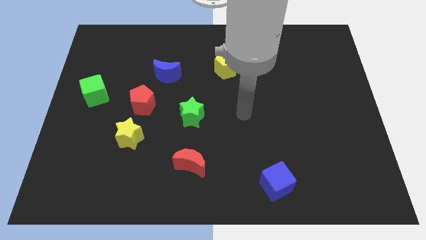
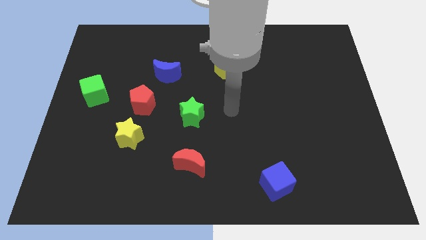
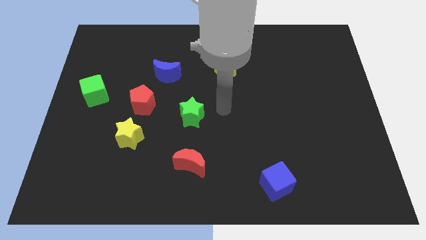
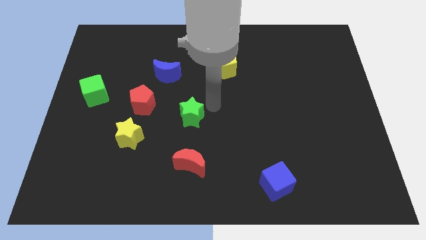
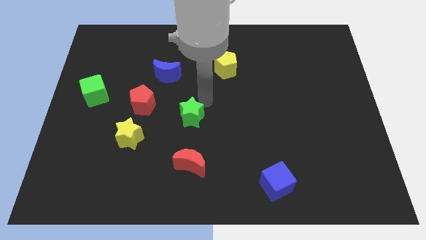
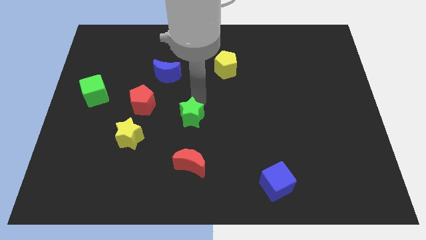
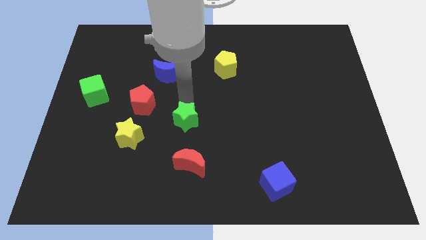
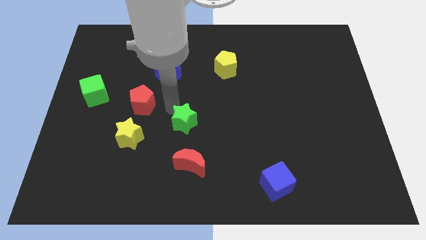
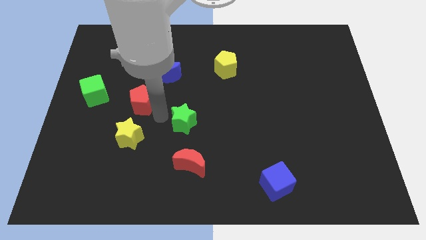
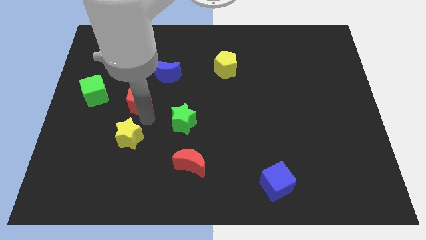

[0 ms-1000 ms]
pull the red pentagon apart from the yellow star

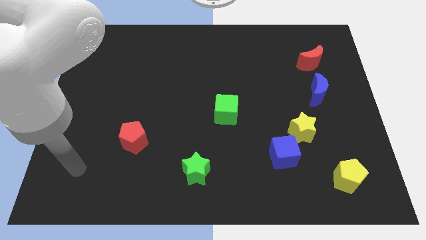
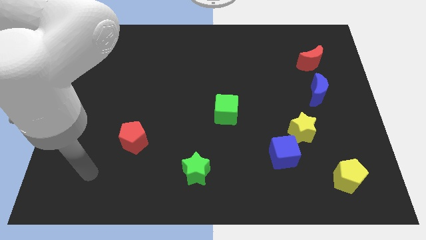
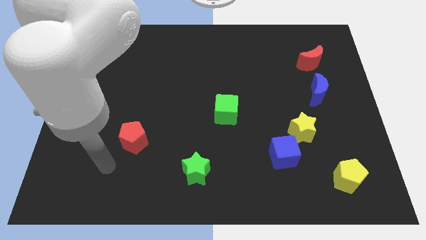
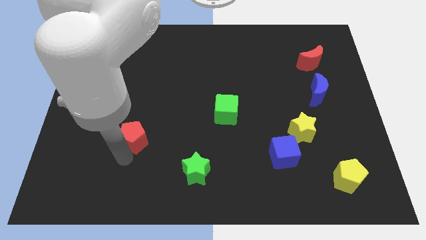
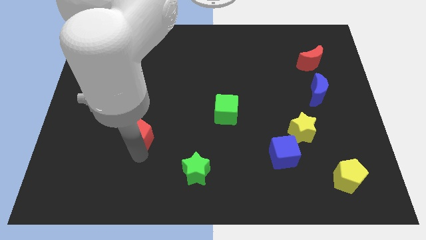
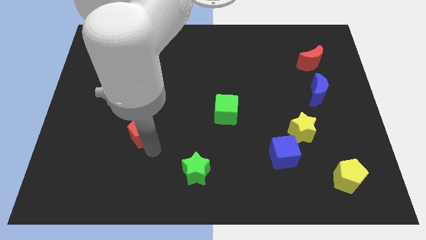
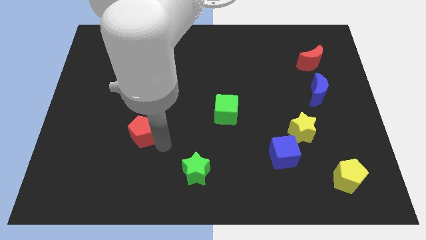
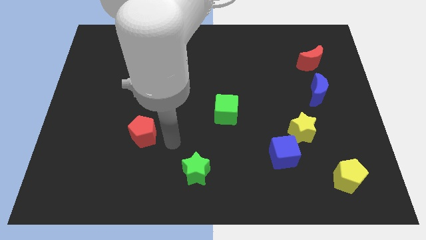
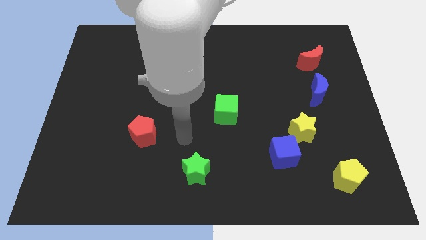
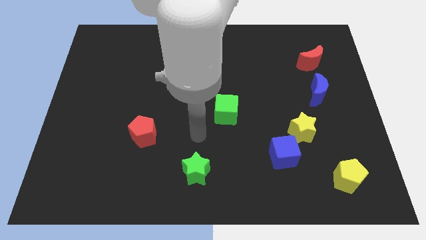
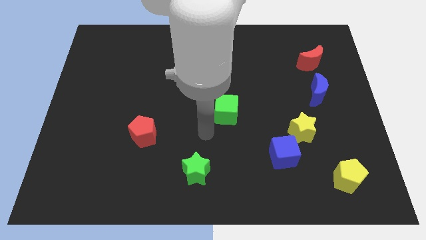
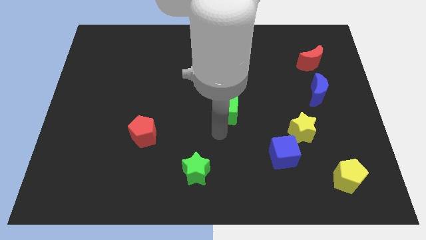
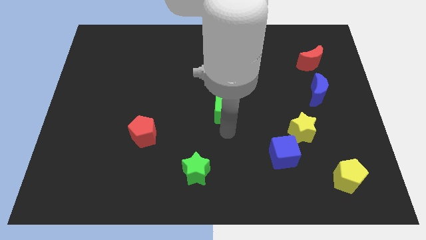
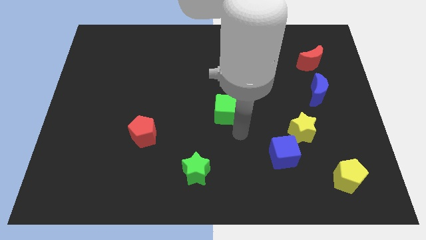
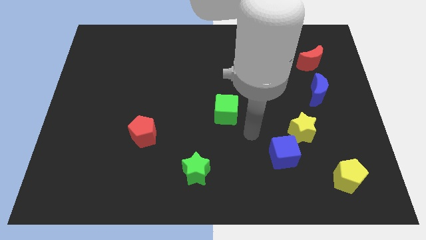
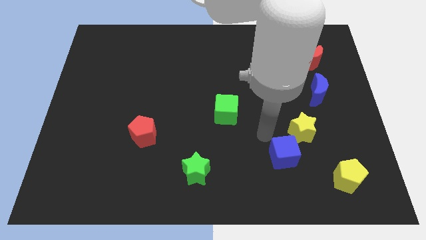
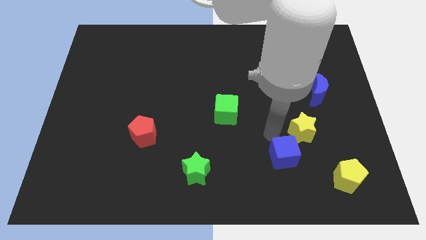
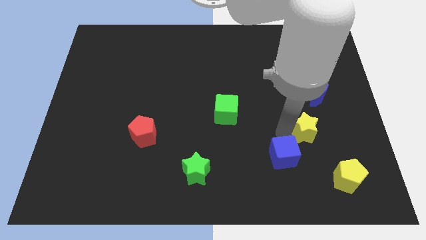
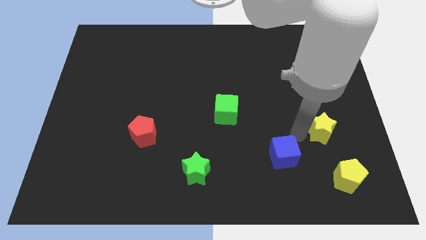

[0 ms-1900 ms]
separate the blue cube from the yellow star

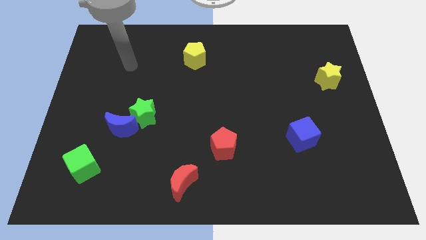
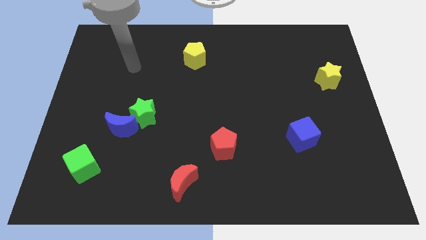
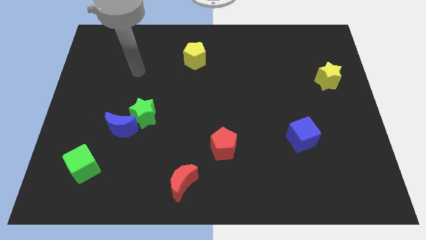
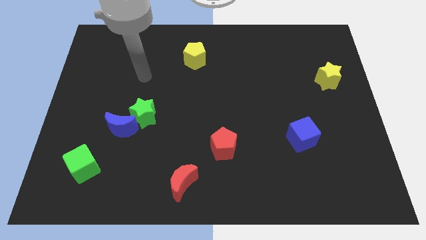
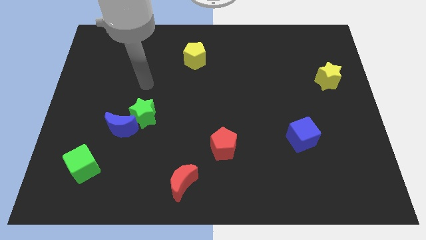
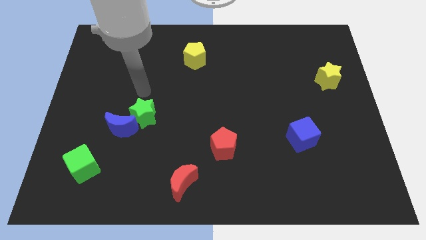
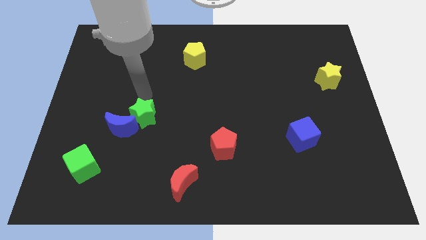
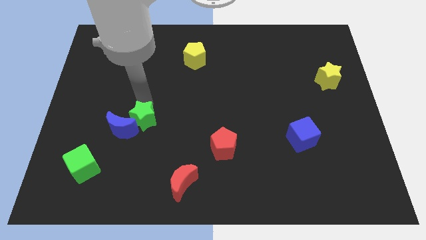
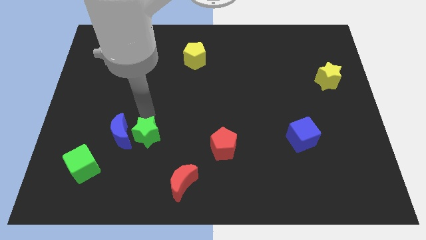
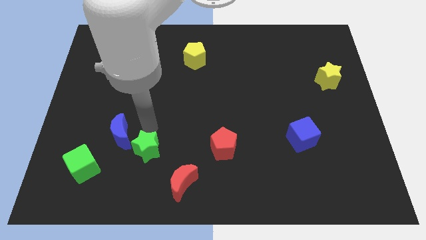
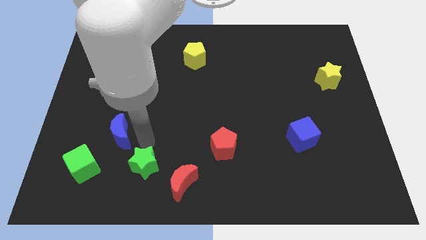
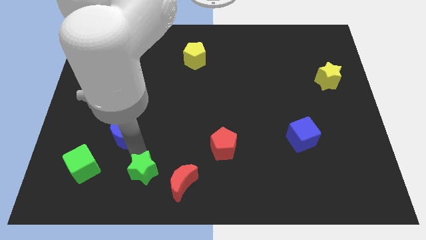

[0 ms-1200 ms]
separate the blue moon from the green star

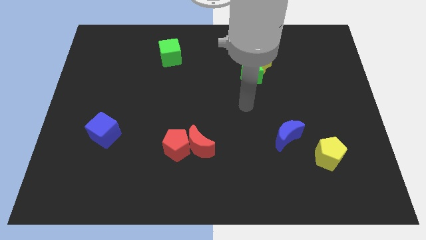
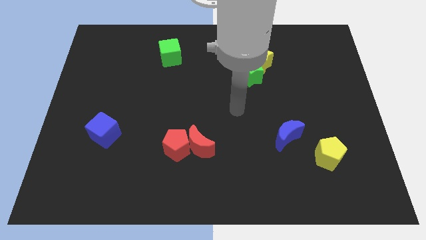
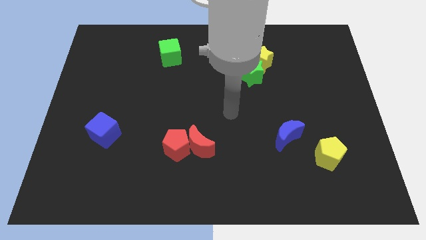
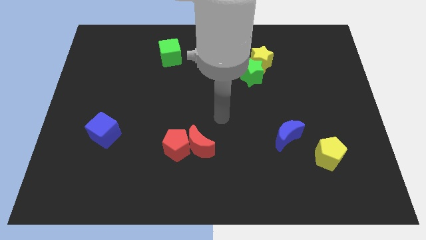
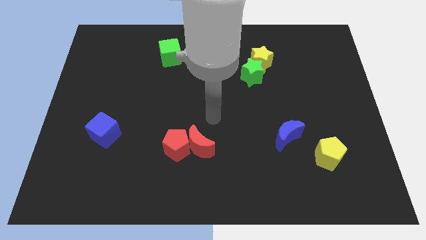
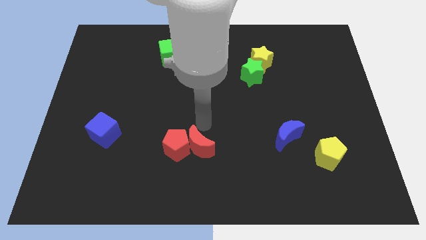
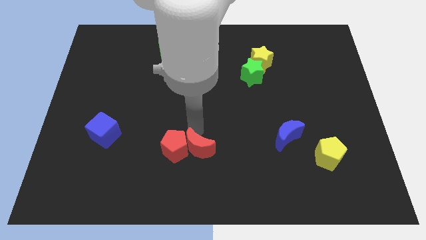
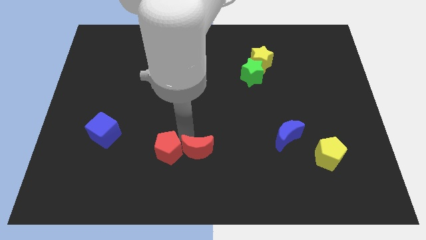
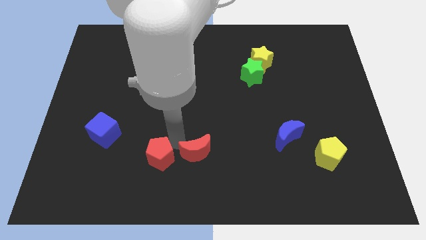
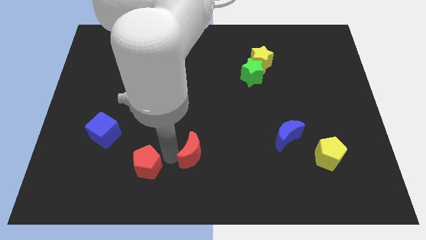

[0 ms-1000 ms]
separate the red moon from the red pentagon

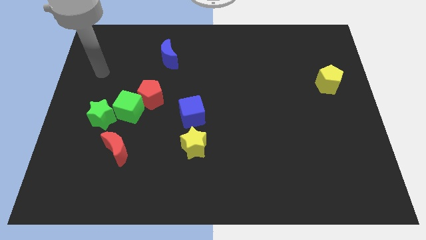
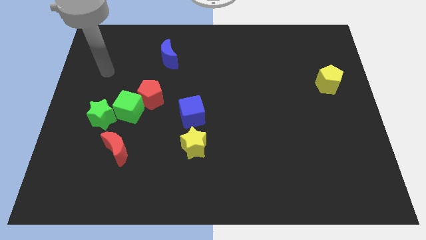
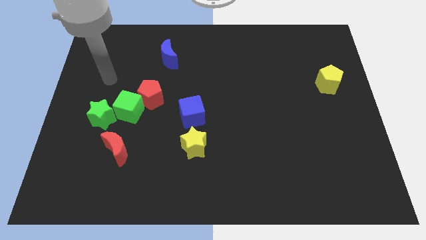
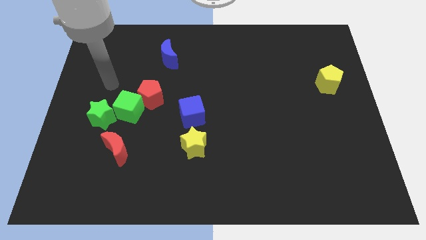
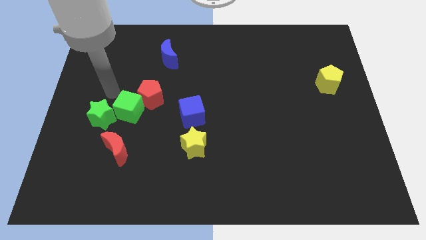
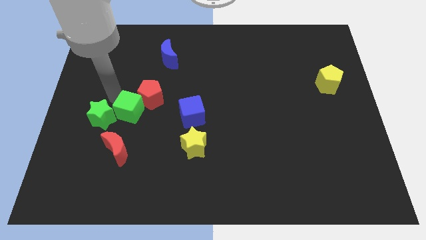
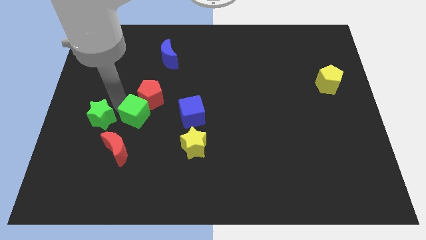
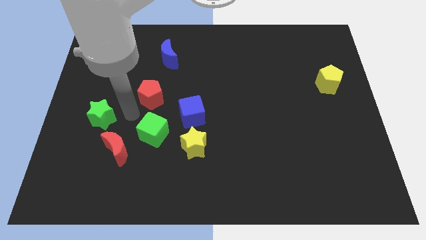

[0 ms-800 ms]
pull the red pentagon apart from the green cube

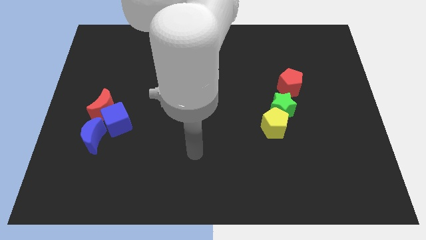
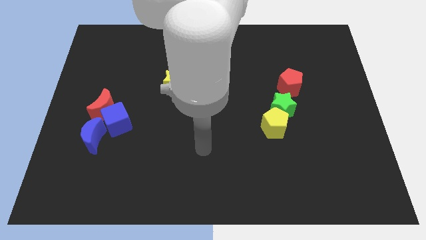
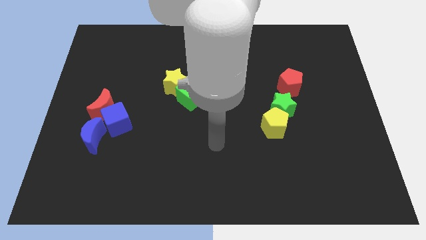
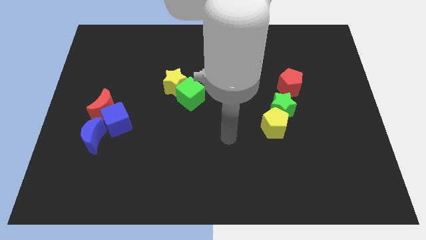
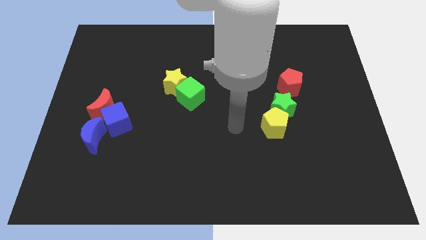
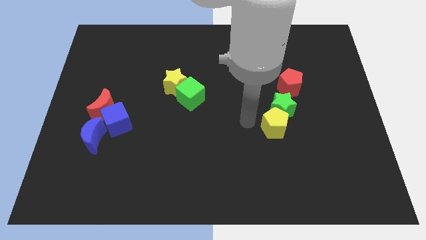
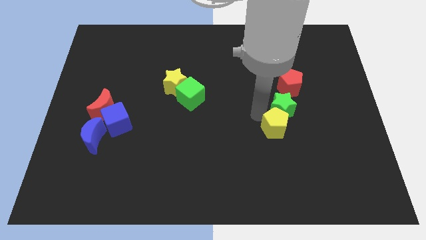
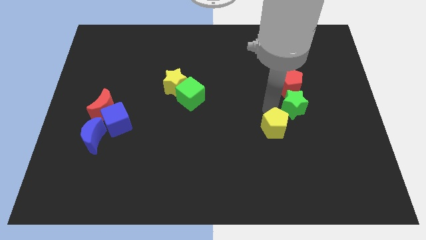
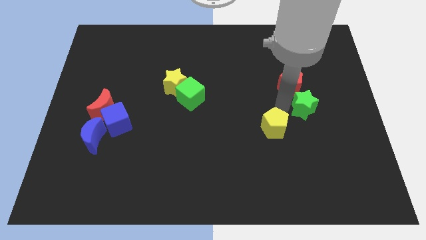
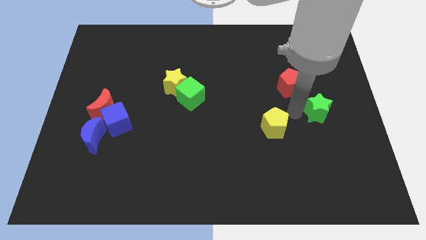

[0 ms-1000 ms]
pull the yellow pentagon apart from the green star

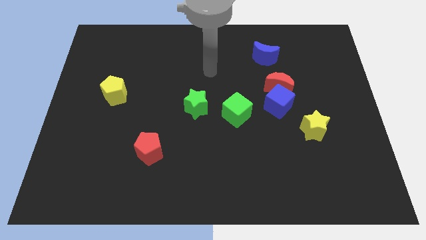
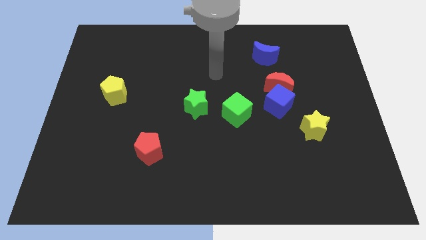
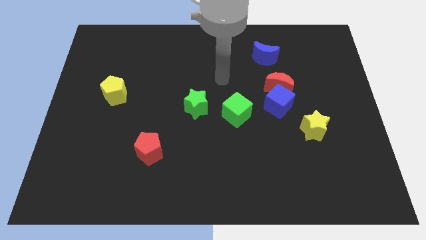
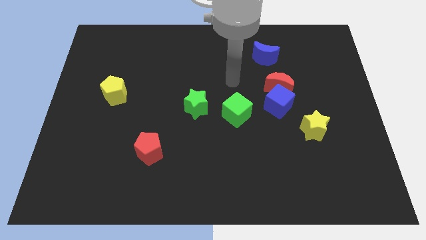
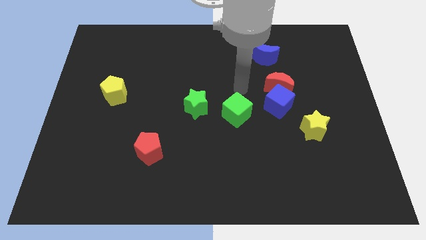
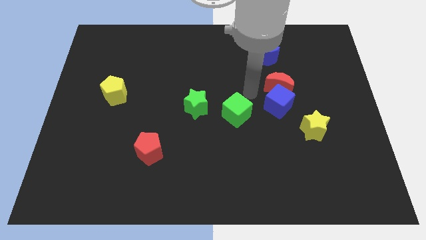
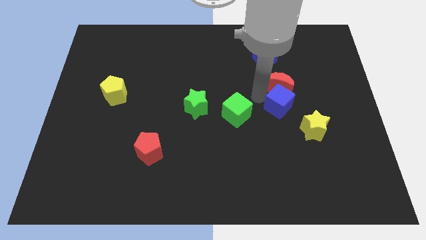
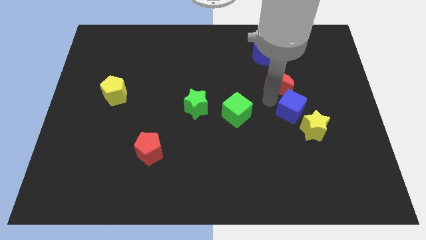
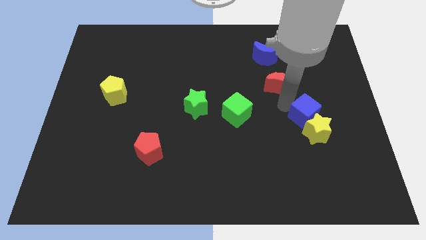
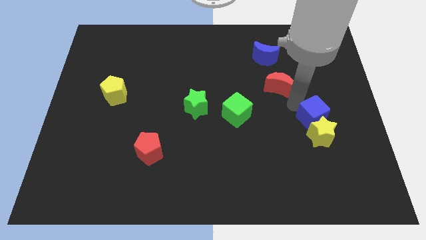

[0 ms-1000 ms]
pull the red moon apart from the blue cube

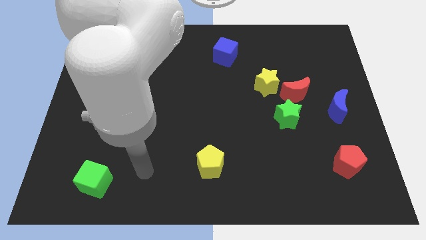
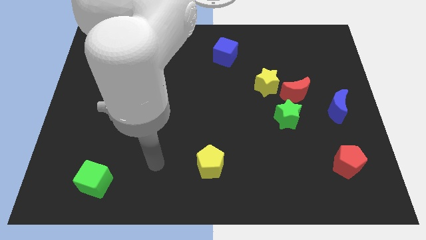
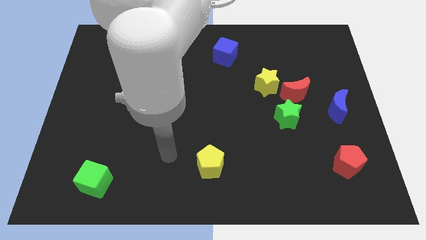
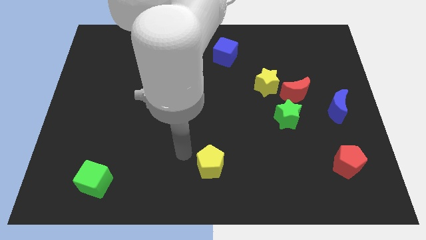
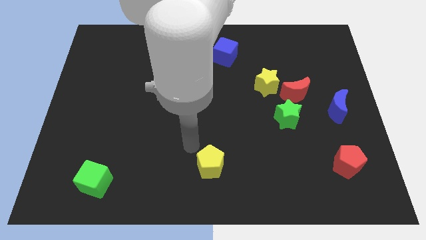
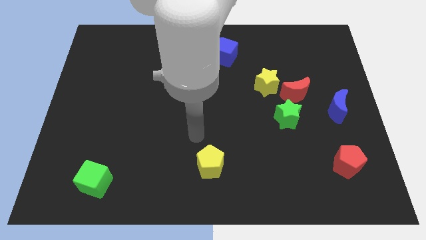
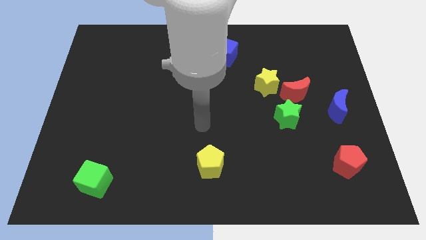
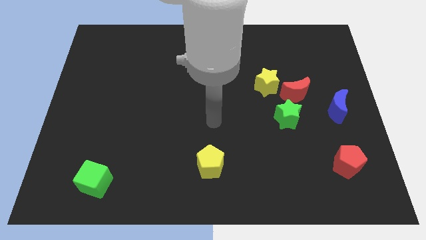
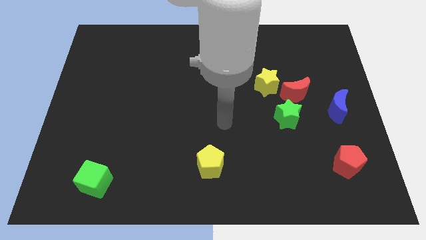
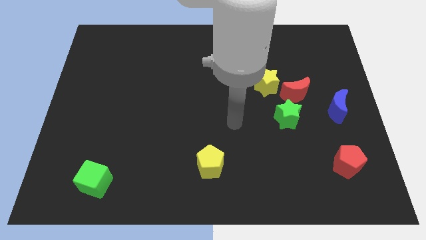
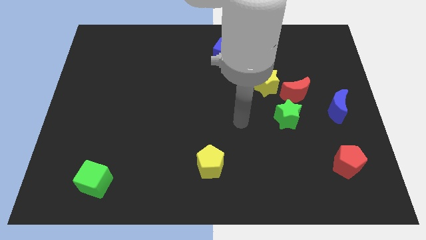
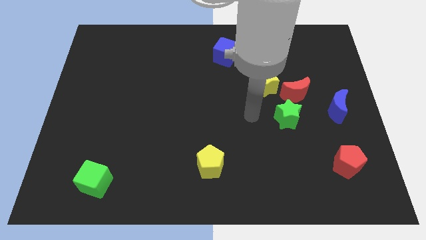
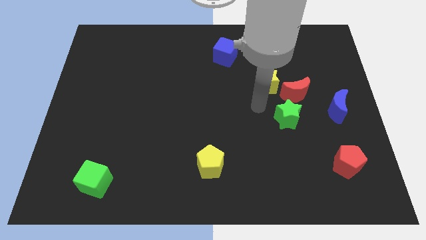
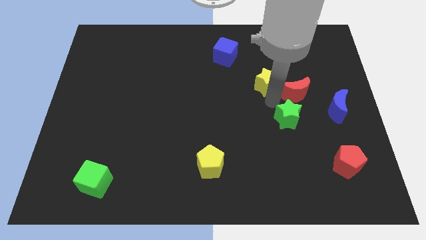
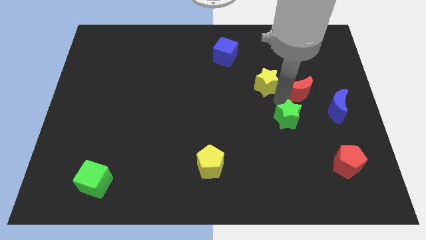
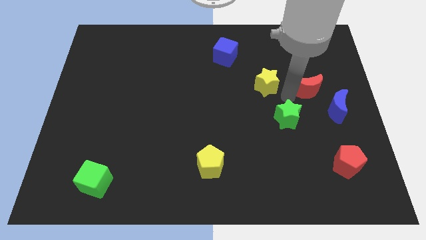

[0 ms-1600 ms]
move the yellow star away from the red moon

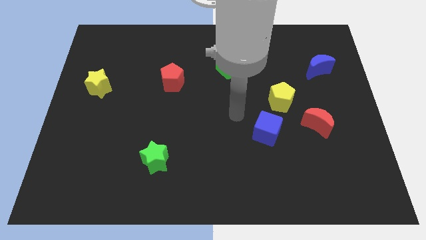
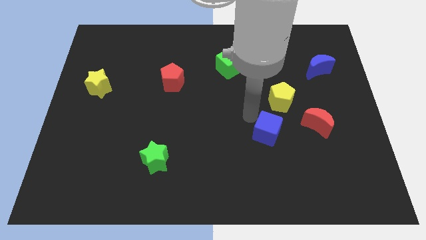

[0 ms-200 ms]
pull the blue cube apart from the yellow pentagon
